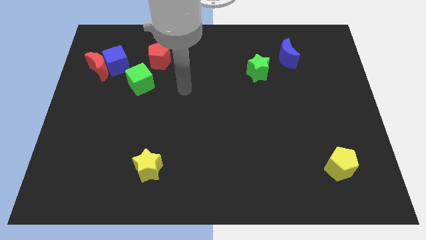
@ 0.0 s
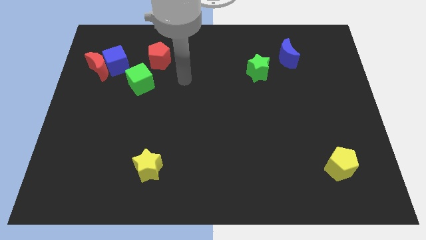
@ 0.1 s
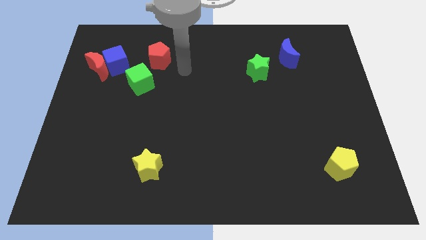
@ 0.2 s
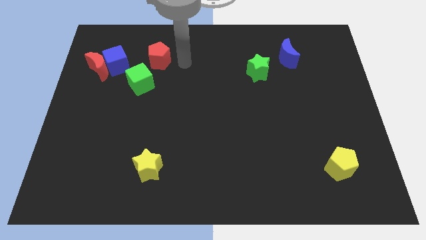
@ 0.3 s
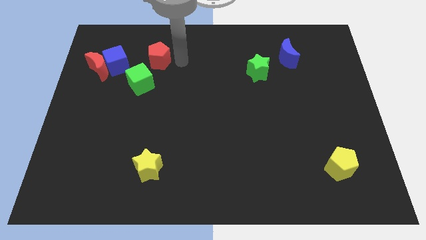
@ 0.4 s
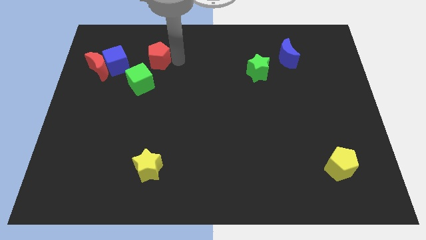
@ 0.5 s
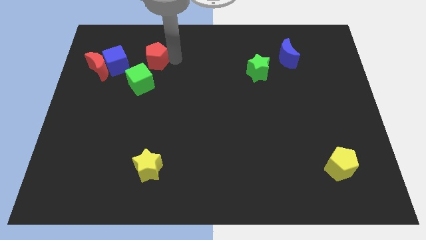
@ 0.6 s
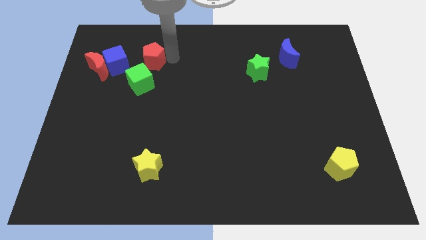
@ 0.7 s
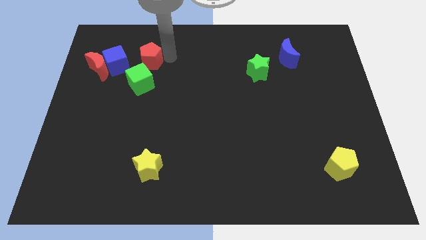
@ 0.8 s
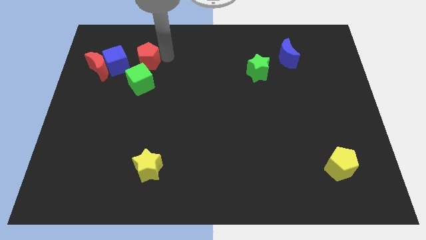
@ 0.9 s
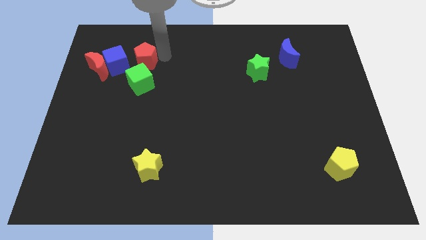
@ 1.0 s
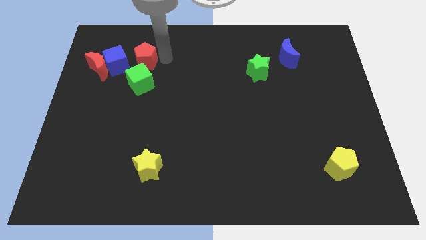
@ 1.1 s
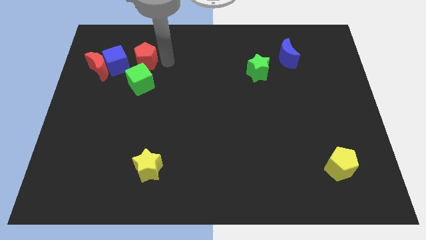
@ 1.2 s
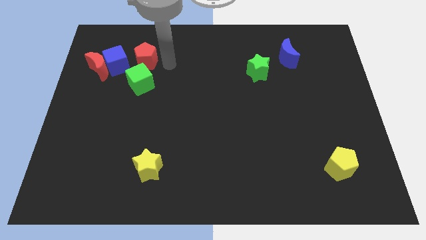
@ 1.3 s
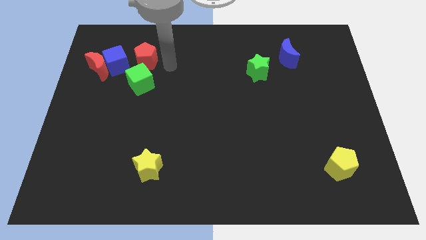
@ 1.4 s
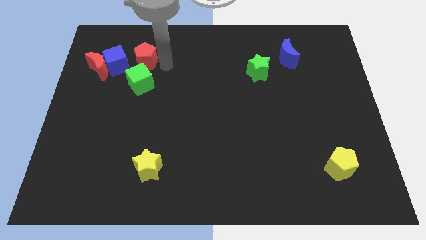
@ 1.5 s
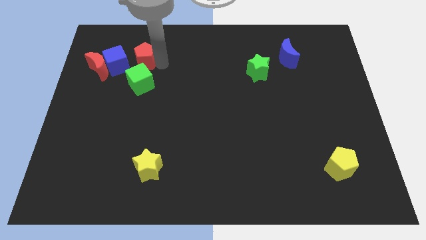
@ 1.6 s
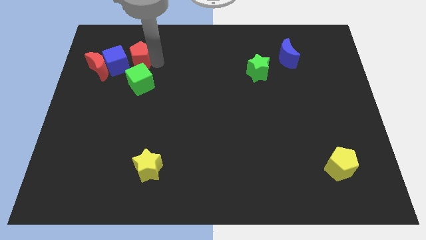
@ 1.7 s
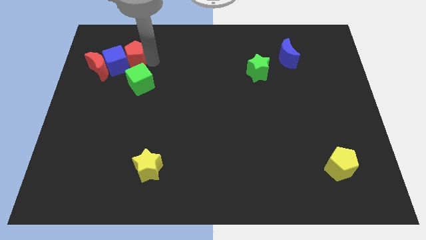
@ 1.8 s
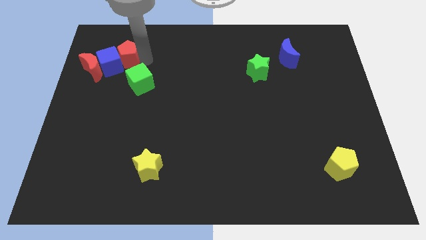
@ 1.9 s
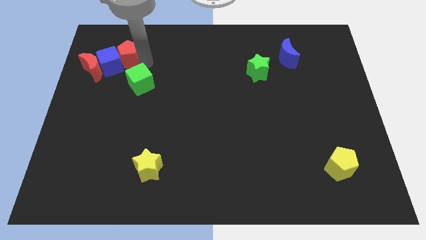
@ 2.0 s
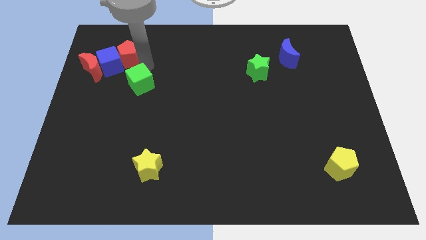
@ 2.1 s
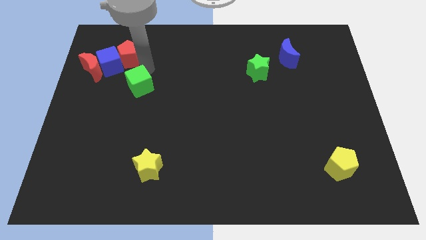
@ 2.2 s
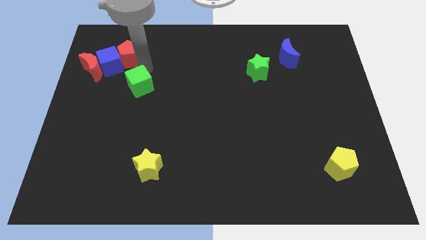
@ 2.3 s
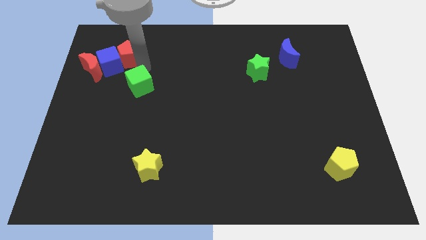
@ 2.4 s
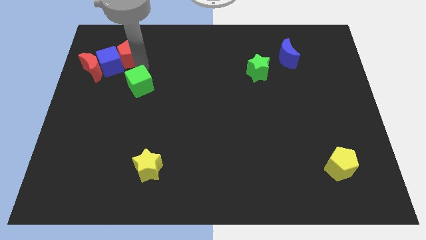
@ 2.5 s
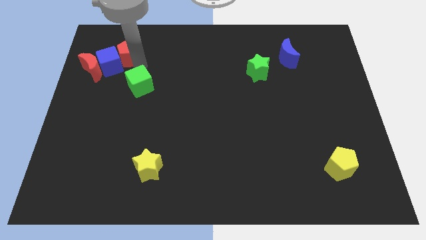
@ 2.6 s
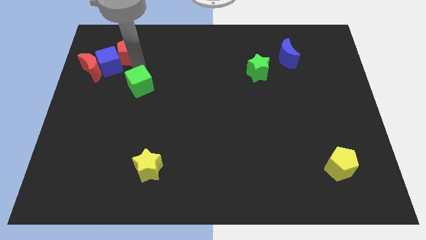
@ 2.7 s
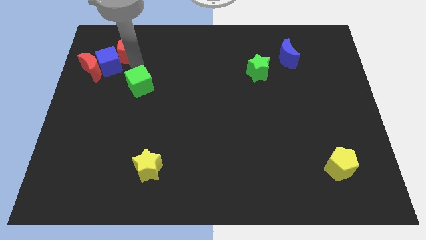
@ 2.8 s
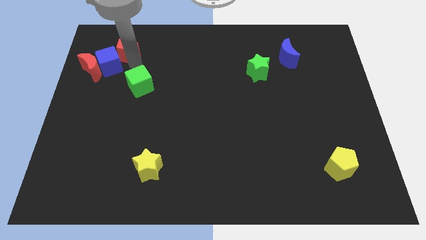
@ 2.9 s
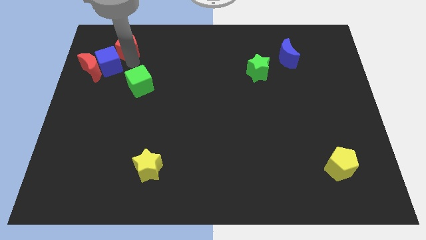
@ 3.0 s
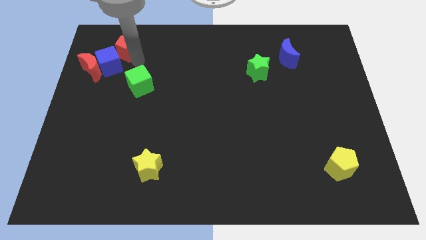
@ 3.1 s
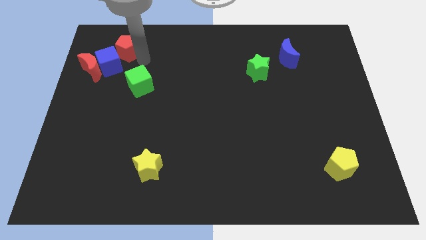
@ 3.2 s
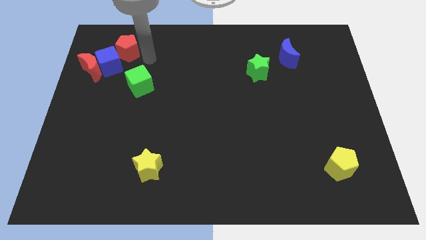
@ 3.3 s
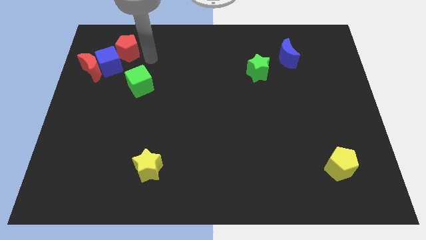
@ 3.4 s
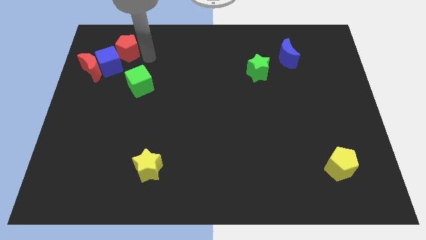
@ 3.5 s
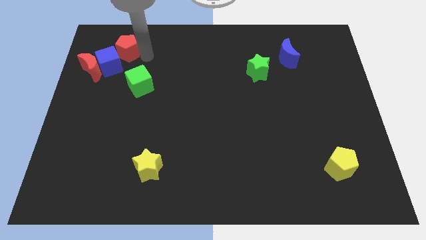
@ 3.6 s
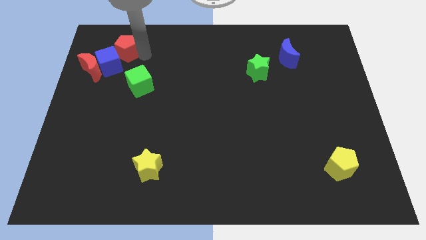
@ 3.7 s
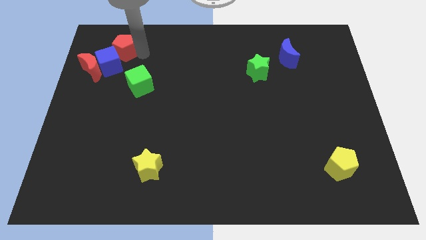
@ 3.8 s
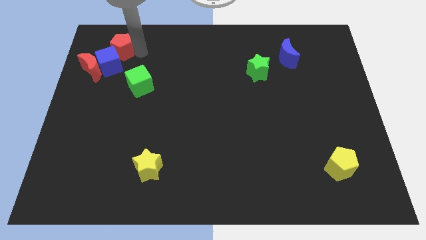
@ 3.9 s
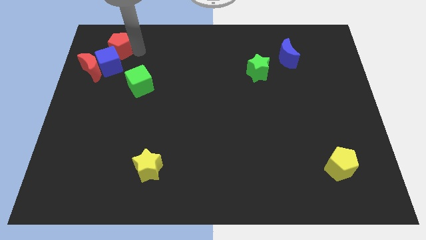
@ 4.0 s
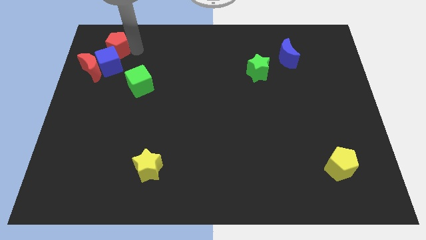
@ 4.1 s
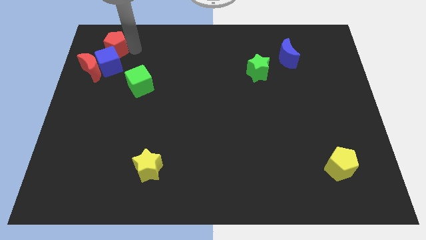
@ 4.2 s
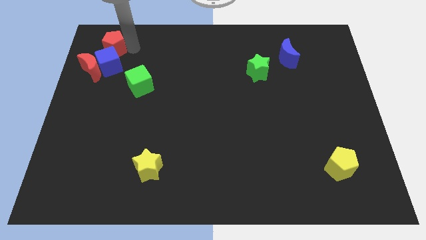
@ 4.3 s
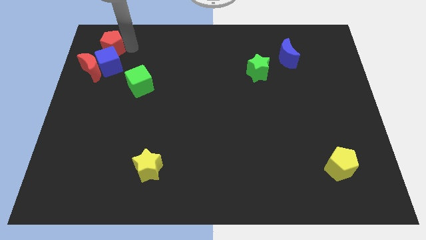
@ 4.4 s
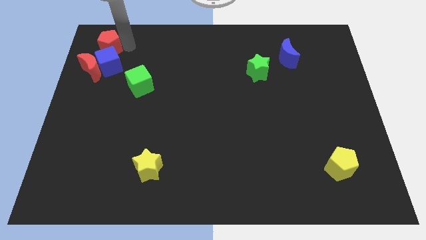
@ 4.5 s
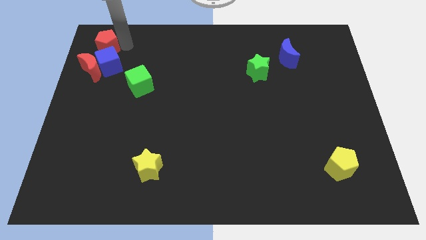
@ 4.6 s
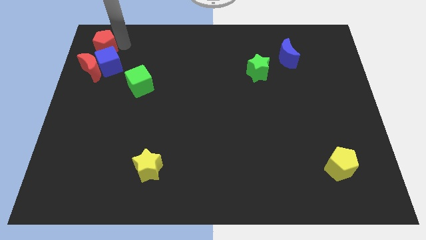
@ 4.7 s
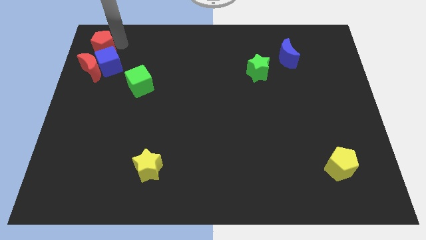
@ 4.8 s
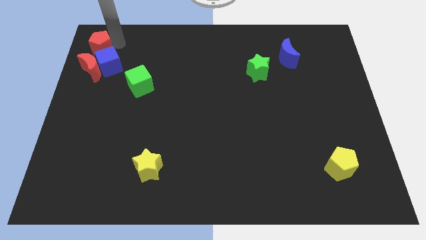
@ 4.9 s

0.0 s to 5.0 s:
push the red pentagon to the upper left corner
